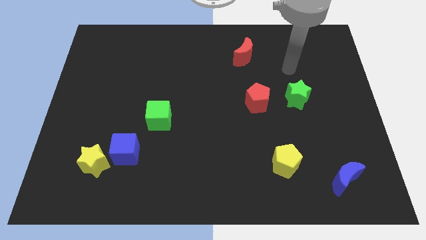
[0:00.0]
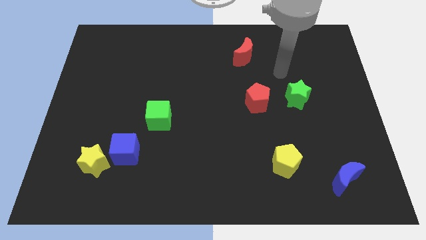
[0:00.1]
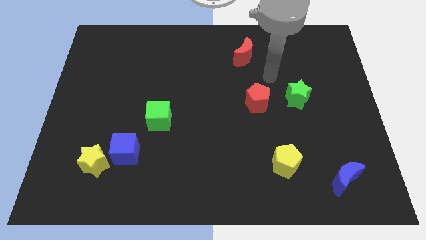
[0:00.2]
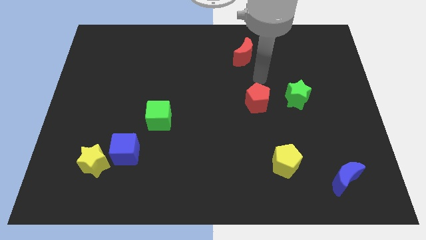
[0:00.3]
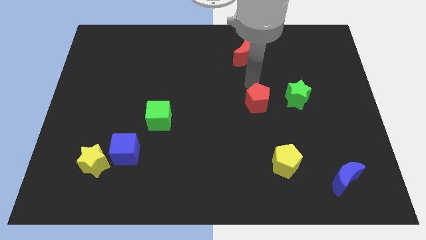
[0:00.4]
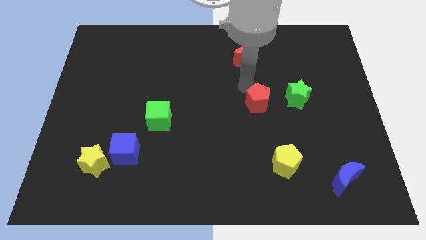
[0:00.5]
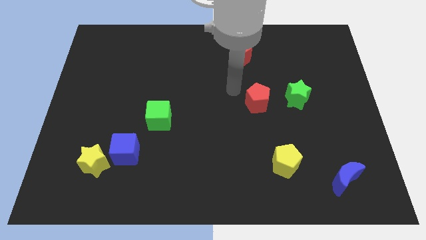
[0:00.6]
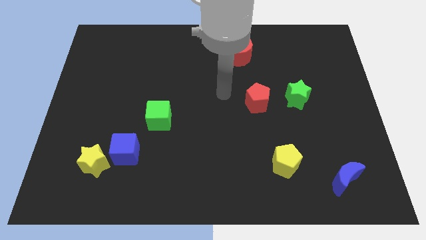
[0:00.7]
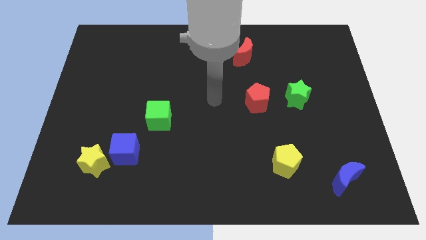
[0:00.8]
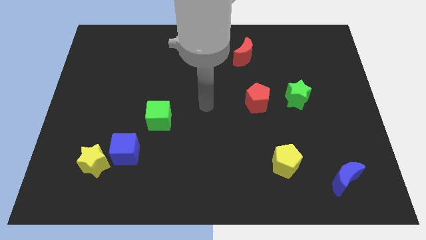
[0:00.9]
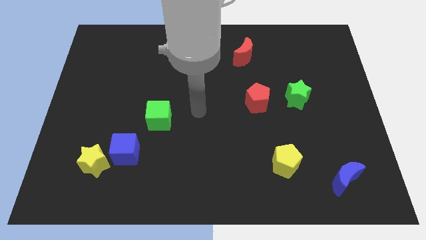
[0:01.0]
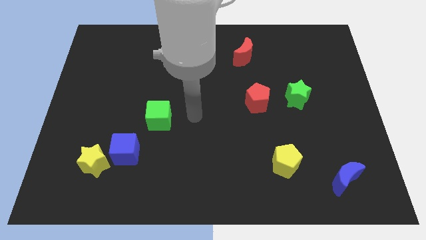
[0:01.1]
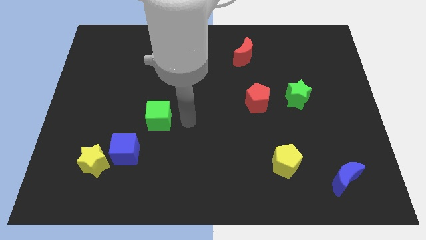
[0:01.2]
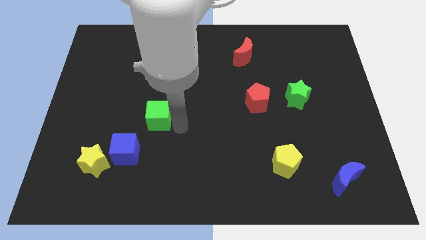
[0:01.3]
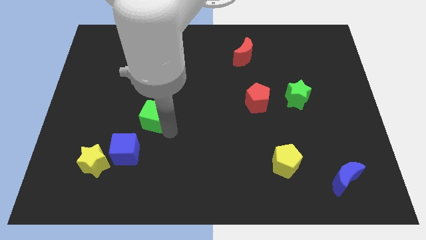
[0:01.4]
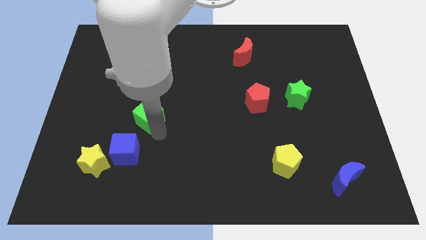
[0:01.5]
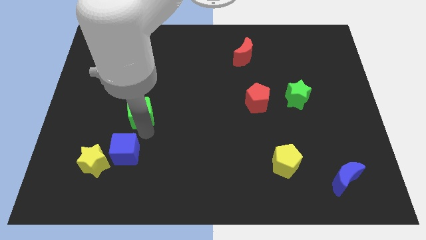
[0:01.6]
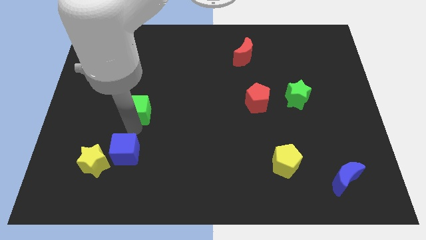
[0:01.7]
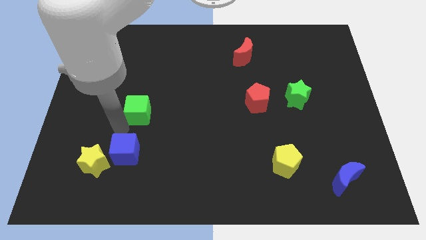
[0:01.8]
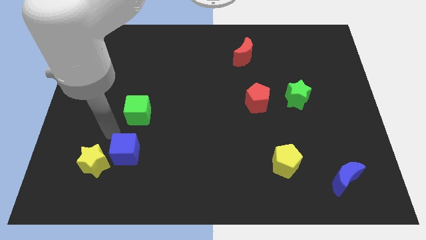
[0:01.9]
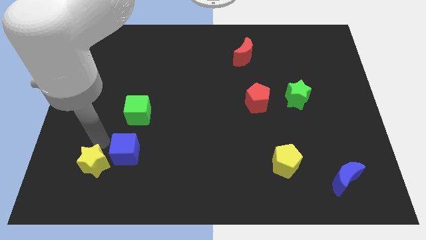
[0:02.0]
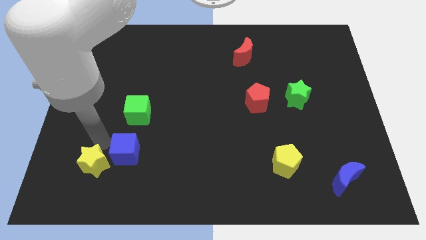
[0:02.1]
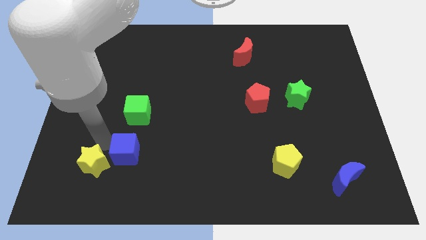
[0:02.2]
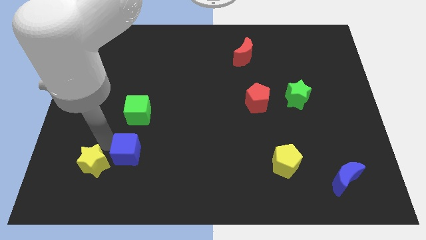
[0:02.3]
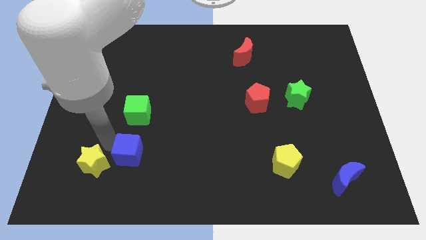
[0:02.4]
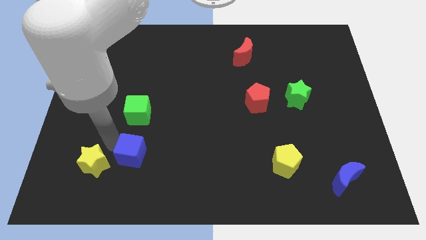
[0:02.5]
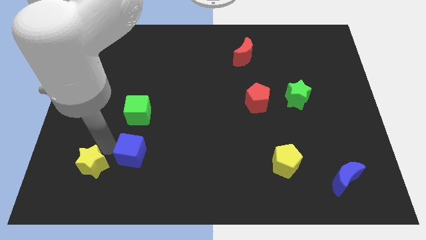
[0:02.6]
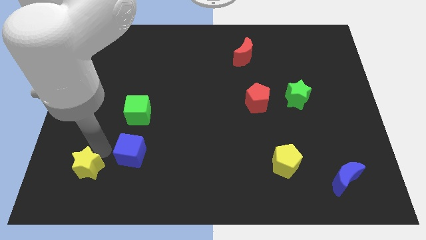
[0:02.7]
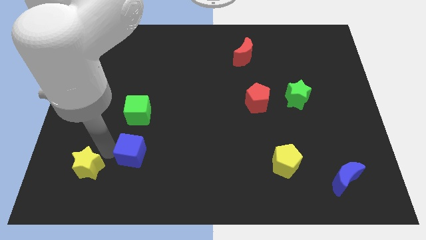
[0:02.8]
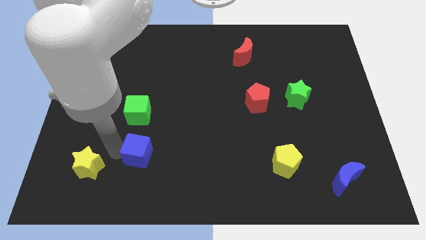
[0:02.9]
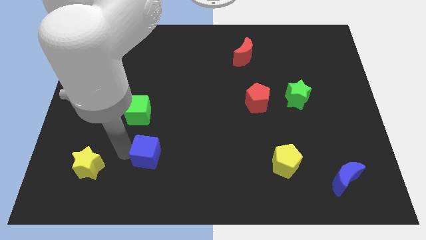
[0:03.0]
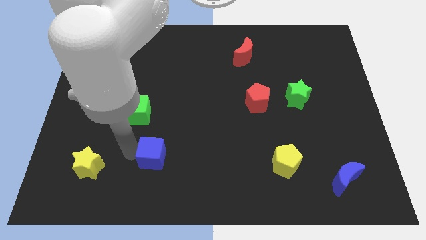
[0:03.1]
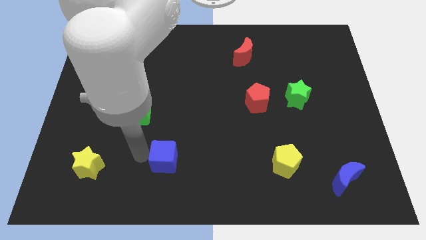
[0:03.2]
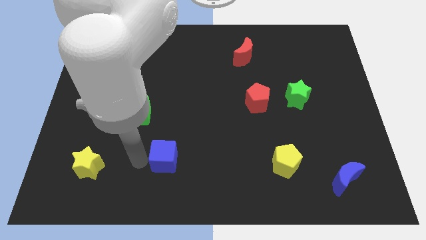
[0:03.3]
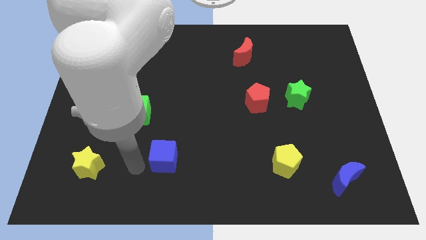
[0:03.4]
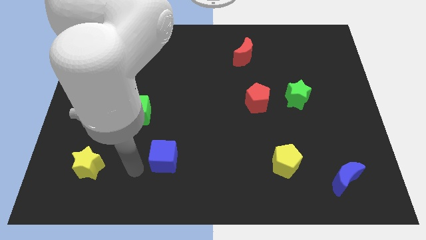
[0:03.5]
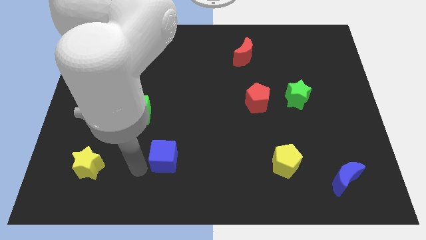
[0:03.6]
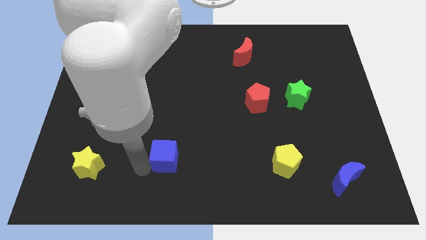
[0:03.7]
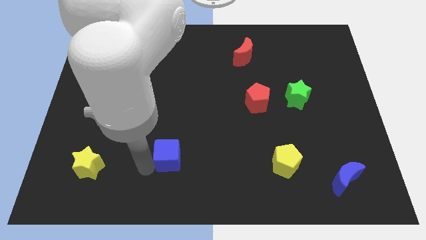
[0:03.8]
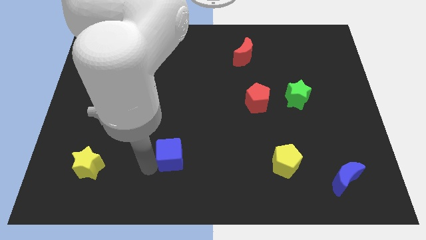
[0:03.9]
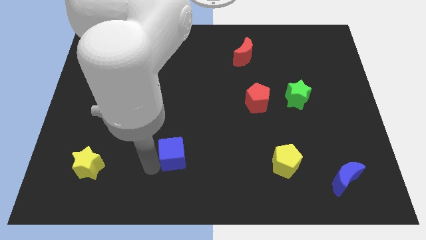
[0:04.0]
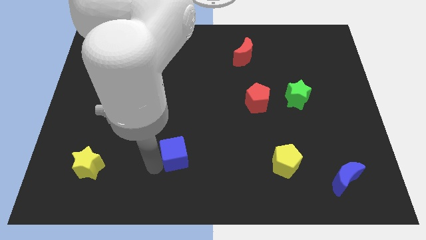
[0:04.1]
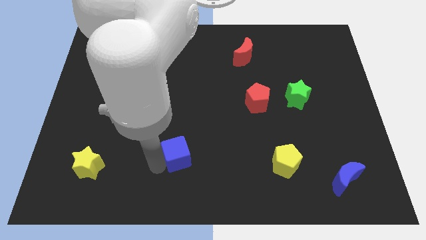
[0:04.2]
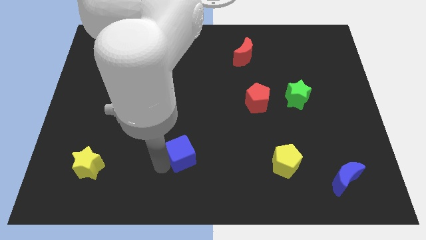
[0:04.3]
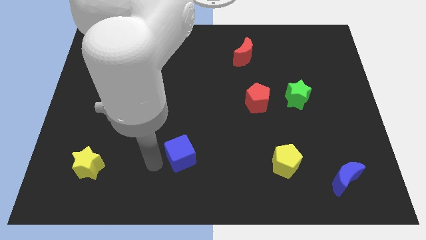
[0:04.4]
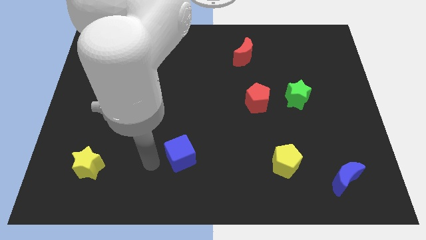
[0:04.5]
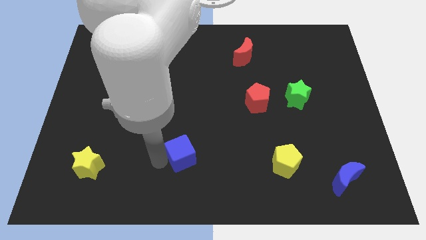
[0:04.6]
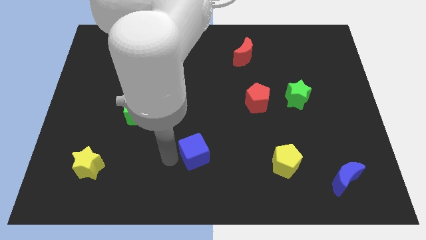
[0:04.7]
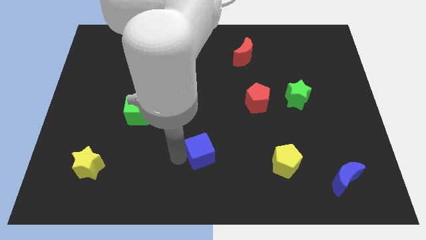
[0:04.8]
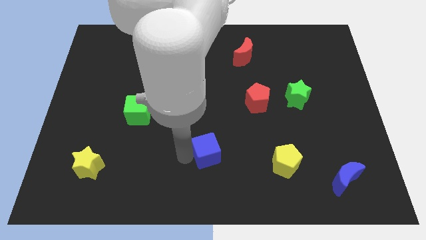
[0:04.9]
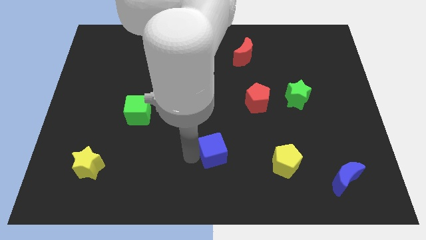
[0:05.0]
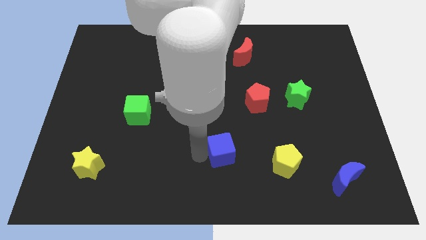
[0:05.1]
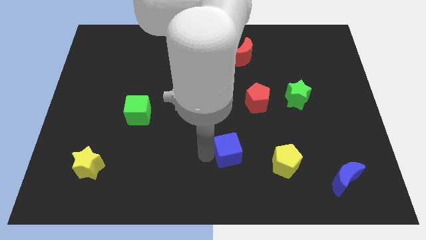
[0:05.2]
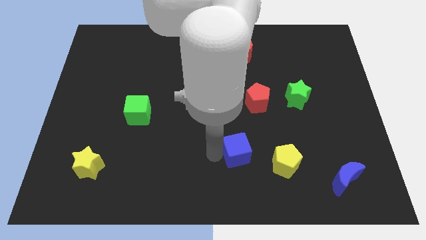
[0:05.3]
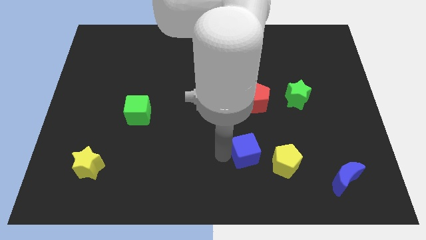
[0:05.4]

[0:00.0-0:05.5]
put the blue cube diagonally up and to the left of the yellow pentagon

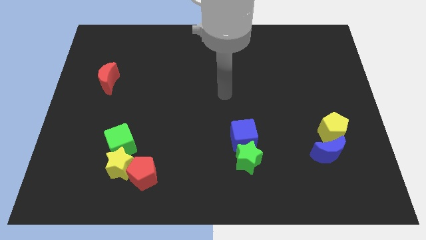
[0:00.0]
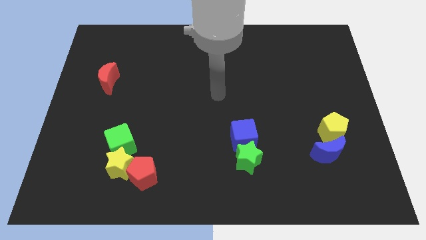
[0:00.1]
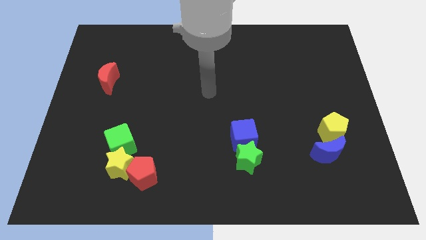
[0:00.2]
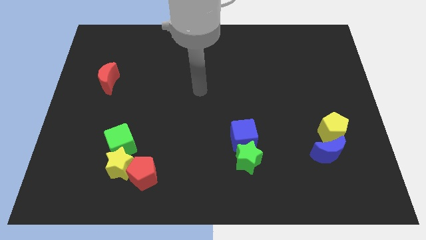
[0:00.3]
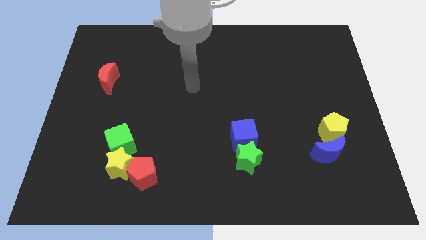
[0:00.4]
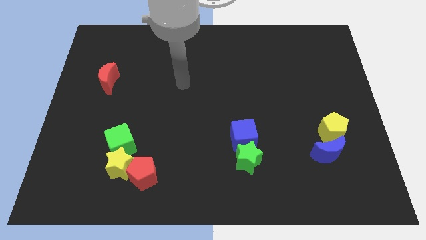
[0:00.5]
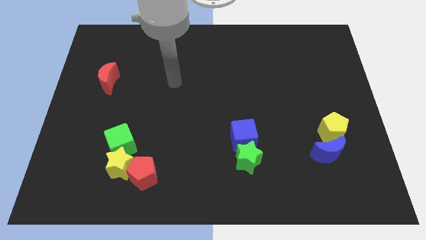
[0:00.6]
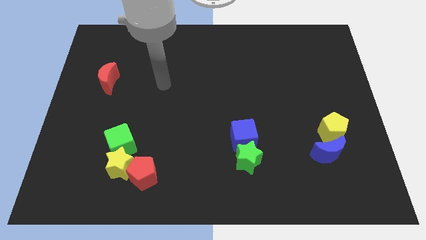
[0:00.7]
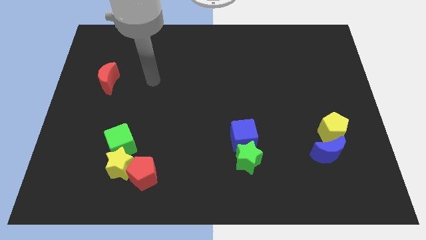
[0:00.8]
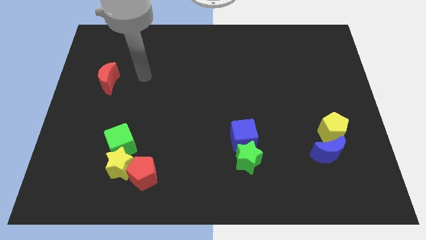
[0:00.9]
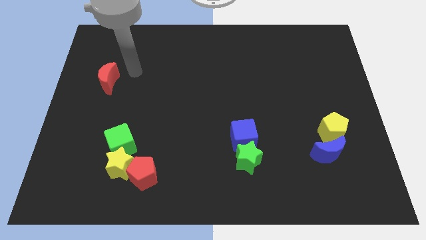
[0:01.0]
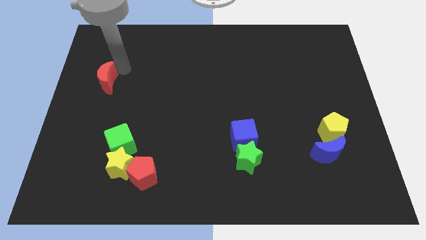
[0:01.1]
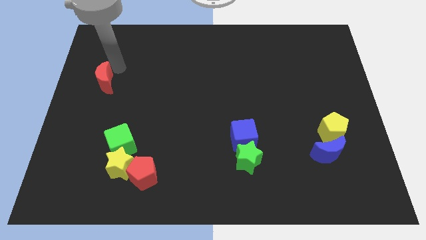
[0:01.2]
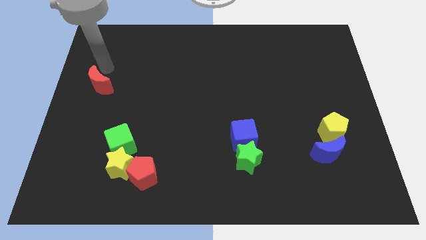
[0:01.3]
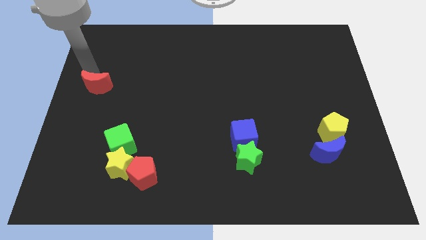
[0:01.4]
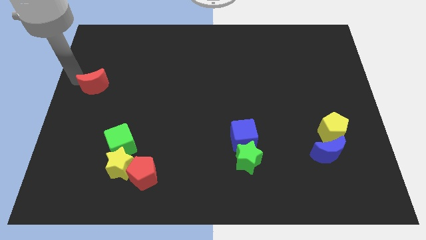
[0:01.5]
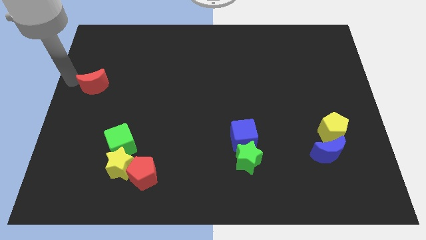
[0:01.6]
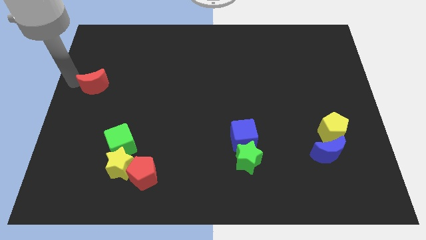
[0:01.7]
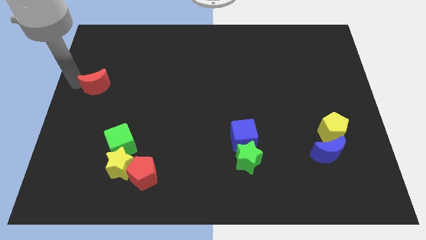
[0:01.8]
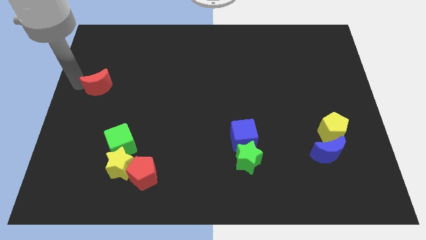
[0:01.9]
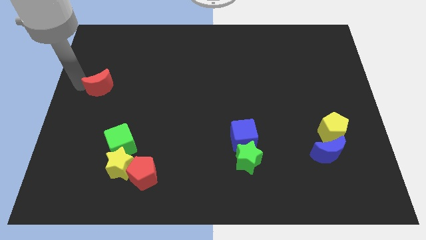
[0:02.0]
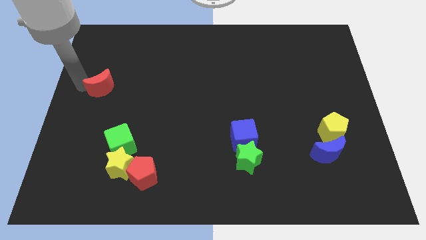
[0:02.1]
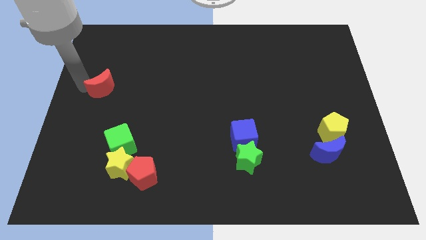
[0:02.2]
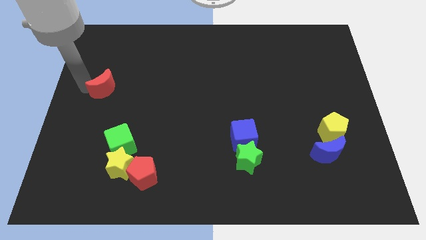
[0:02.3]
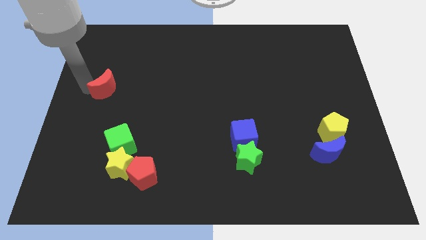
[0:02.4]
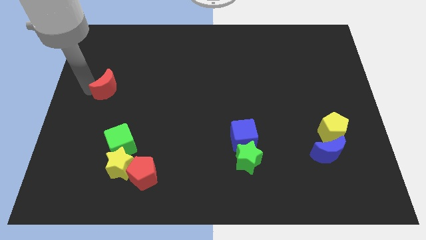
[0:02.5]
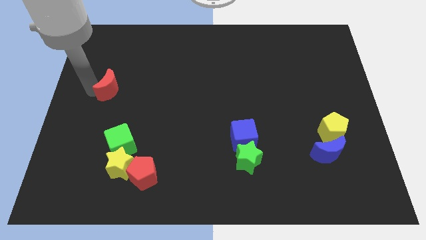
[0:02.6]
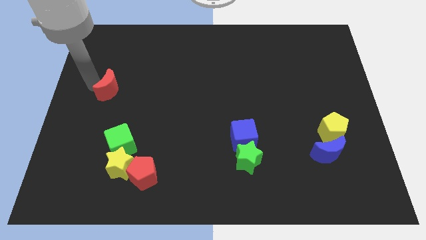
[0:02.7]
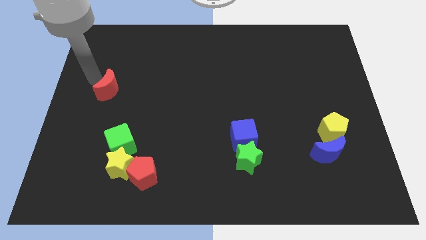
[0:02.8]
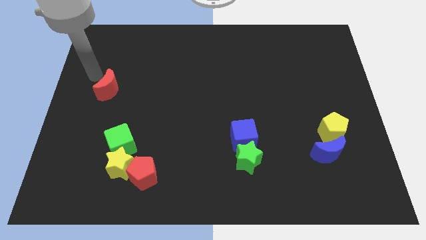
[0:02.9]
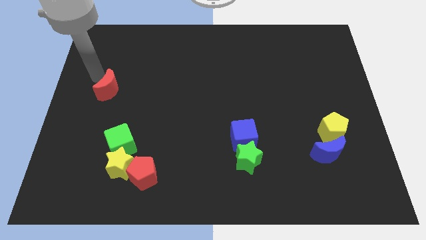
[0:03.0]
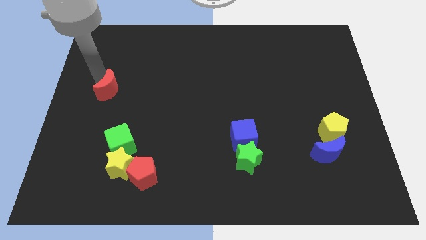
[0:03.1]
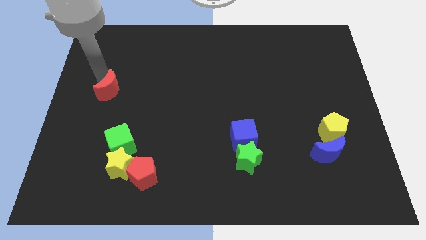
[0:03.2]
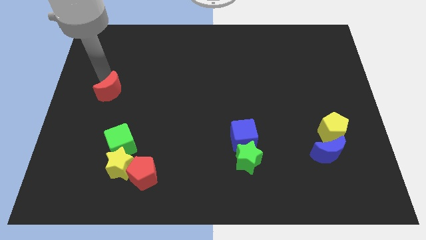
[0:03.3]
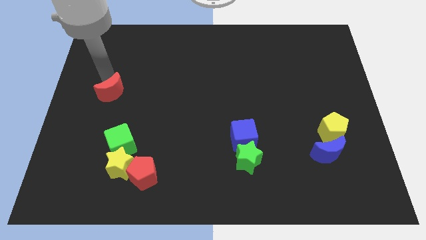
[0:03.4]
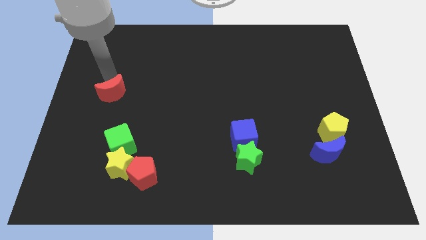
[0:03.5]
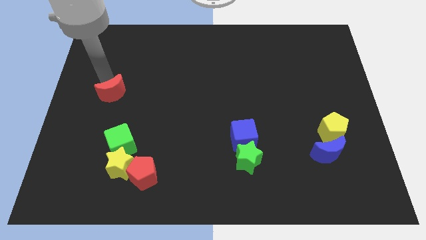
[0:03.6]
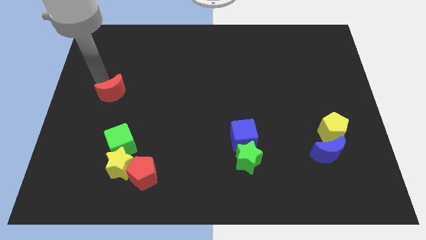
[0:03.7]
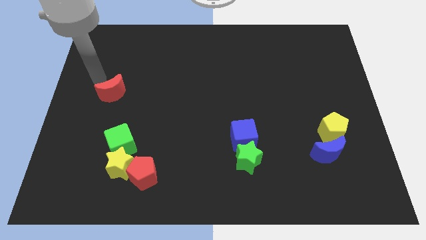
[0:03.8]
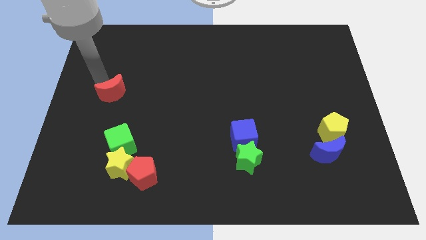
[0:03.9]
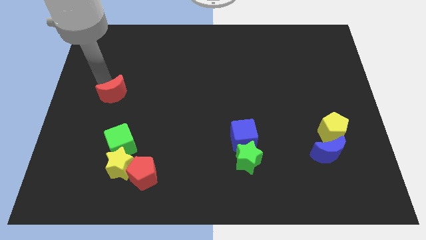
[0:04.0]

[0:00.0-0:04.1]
move the red moon to the top of the green cube
